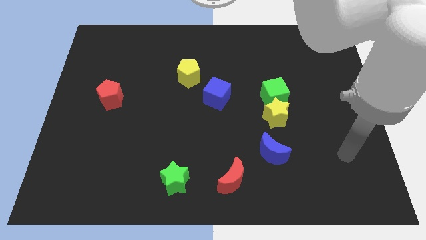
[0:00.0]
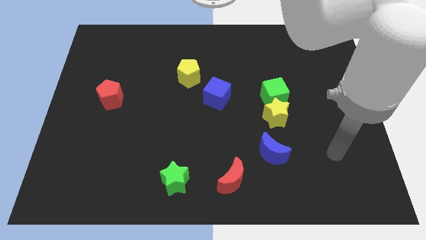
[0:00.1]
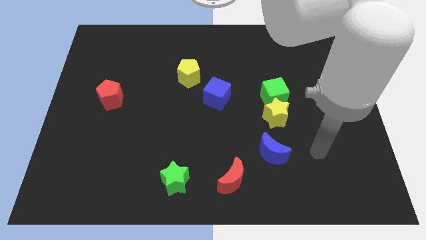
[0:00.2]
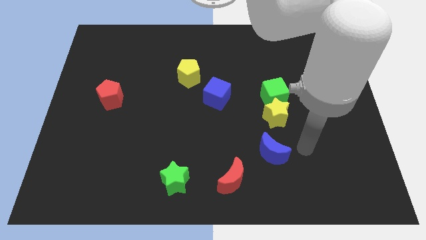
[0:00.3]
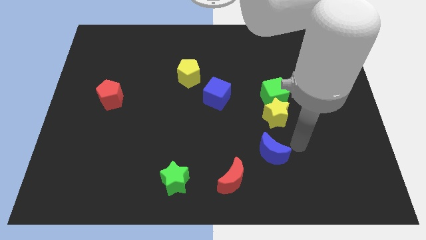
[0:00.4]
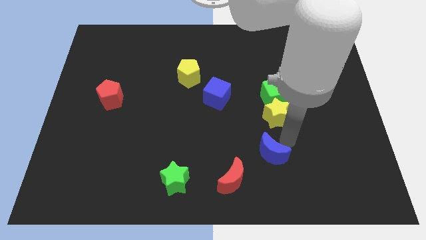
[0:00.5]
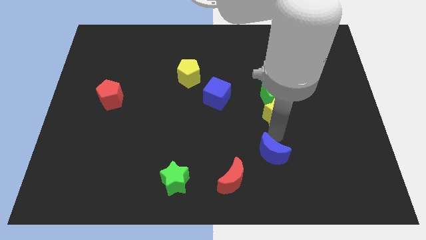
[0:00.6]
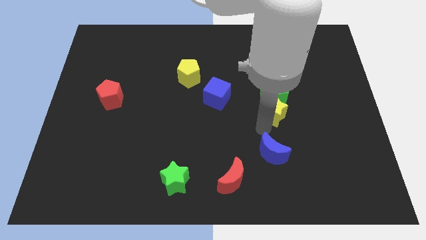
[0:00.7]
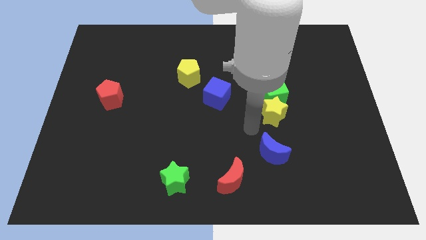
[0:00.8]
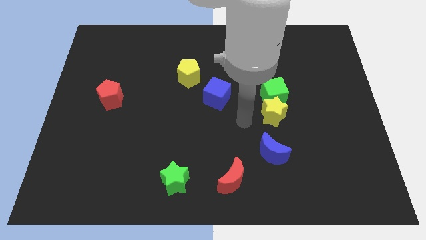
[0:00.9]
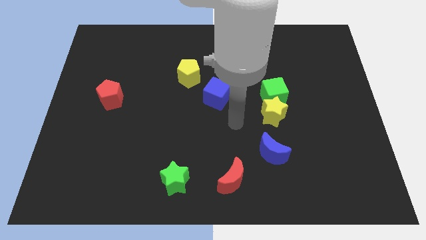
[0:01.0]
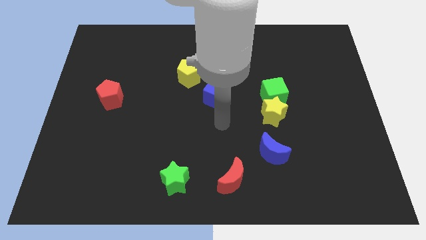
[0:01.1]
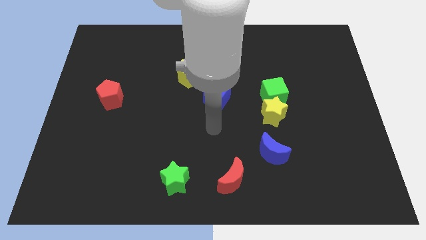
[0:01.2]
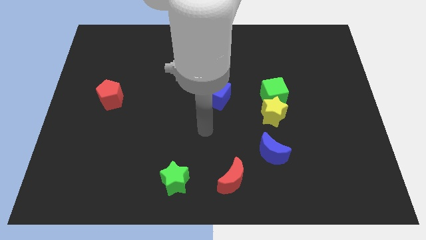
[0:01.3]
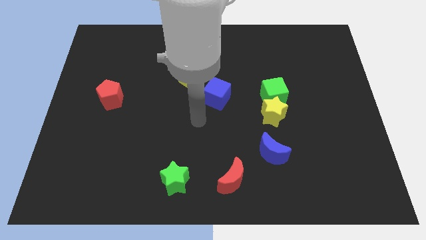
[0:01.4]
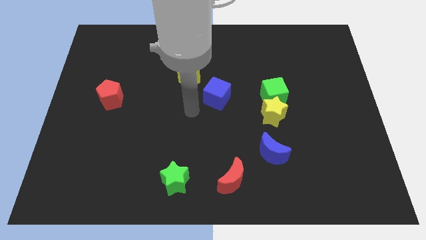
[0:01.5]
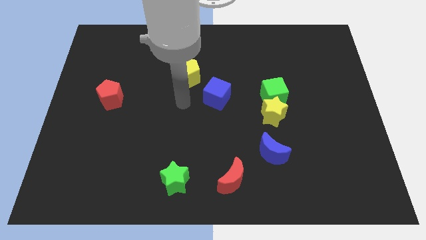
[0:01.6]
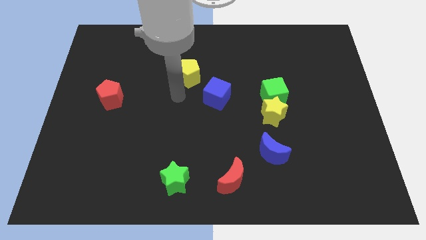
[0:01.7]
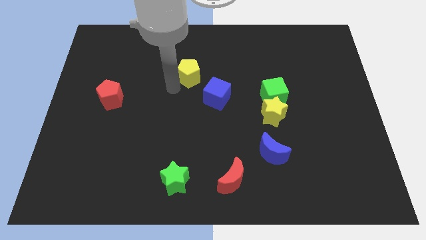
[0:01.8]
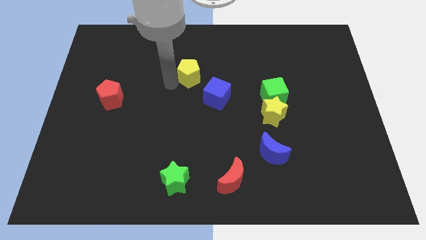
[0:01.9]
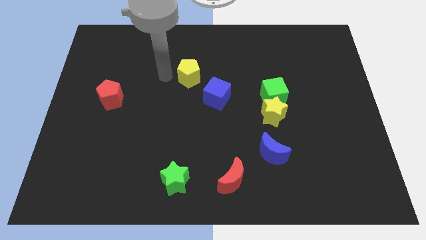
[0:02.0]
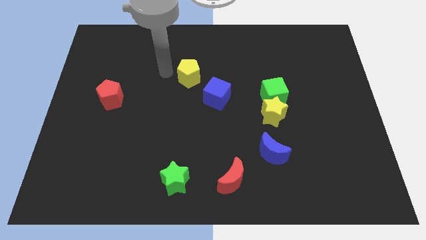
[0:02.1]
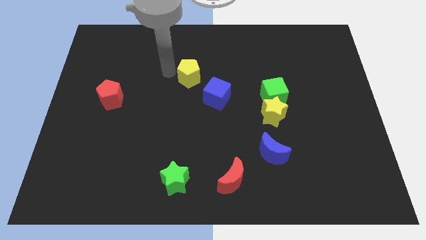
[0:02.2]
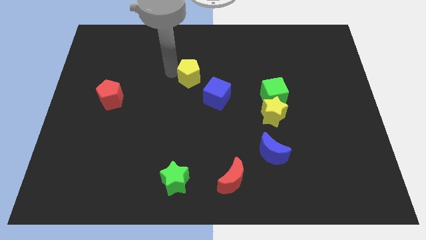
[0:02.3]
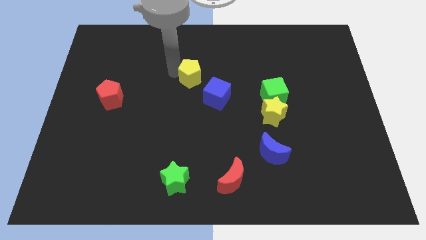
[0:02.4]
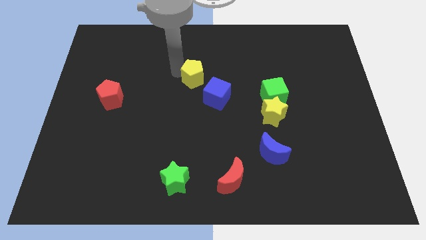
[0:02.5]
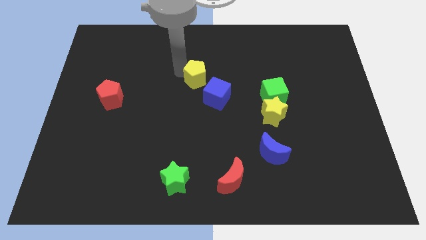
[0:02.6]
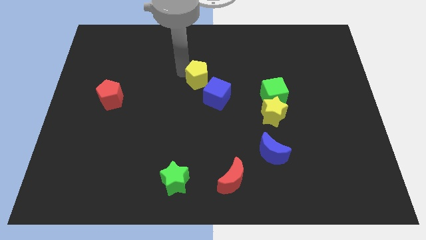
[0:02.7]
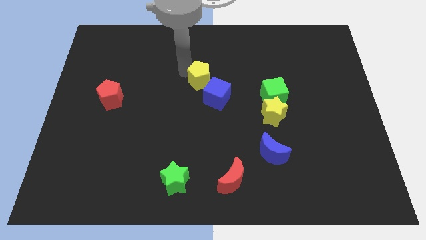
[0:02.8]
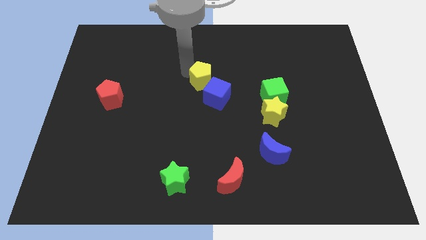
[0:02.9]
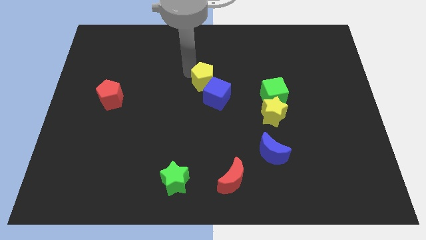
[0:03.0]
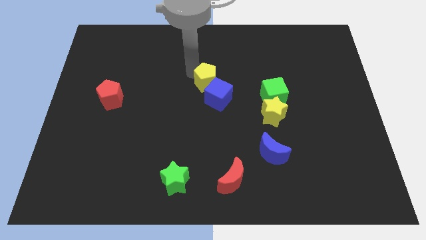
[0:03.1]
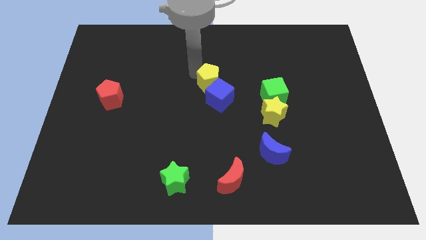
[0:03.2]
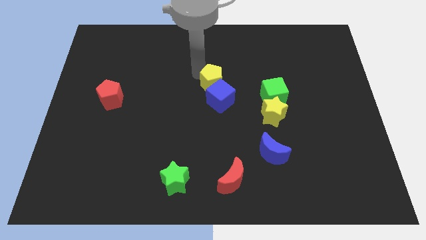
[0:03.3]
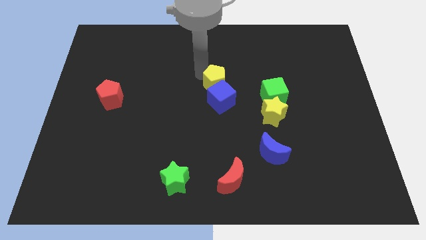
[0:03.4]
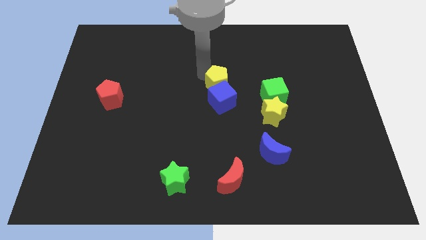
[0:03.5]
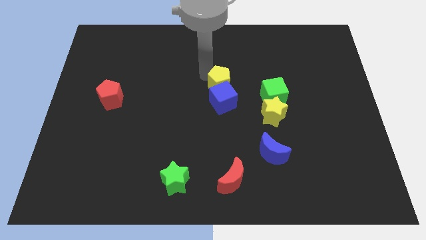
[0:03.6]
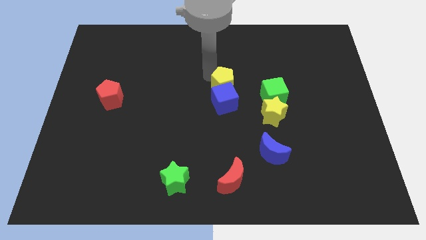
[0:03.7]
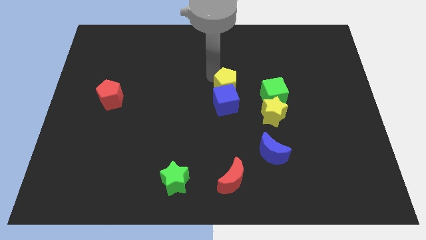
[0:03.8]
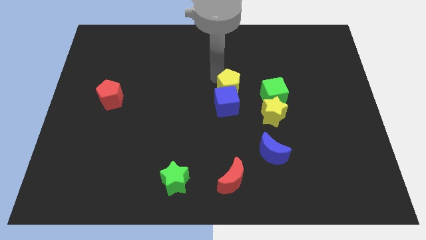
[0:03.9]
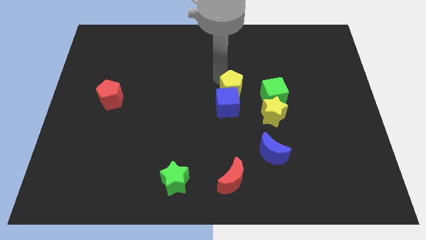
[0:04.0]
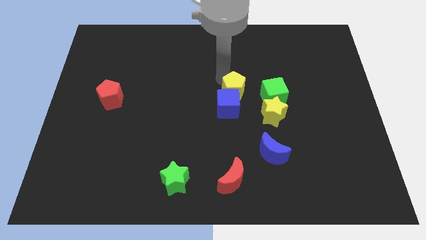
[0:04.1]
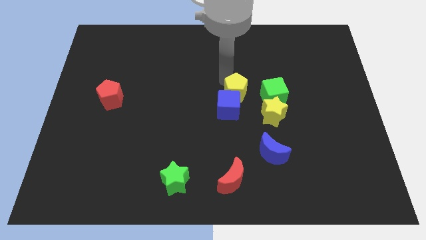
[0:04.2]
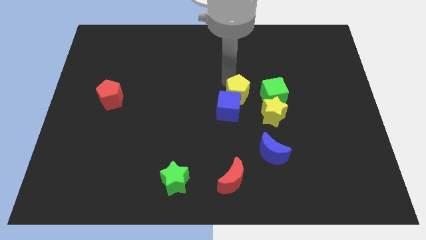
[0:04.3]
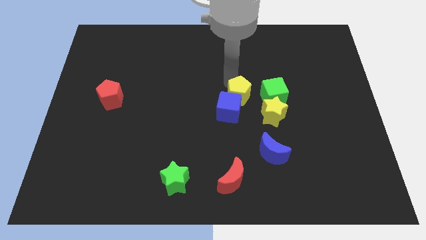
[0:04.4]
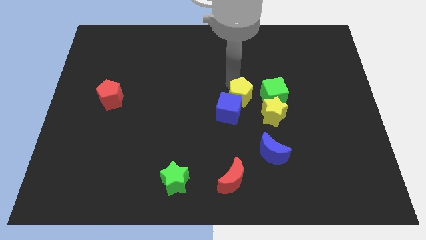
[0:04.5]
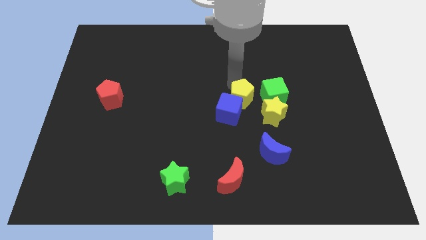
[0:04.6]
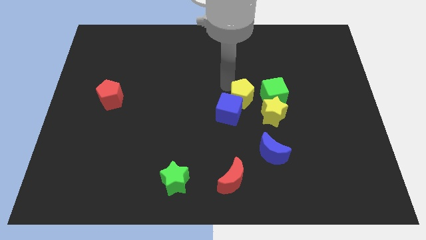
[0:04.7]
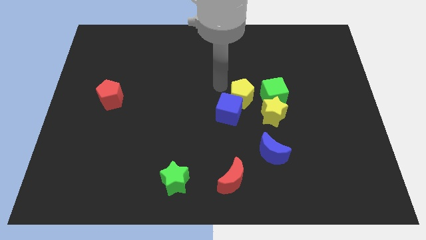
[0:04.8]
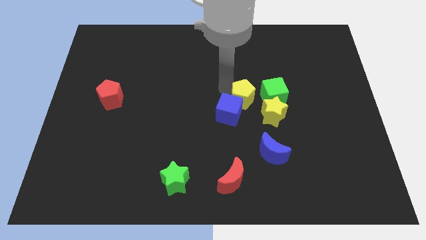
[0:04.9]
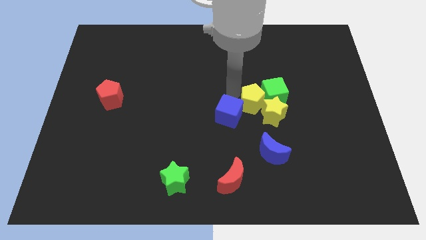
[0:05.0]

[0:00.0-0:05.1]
push the yellow pentagon close to the yellow star
